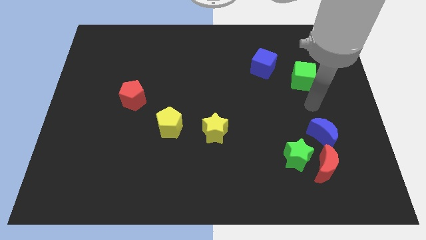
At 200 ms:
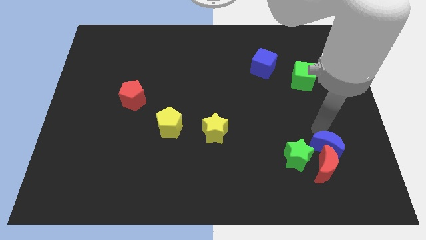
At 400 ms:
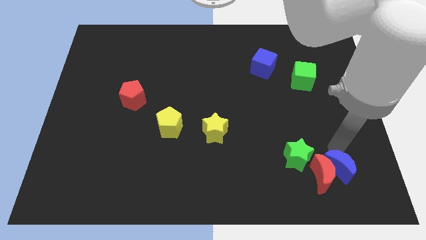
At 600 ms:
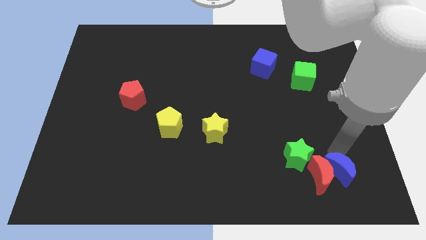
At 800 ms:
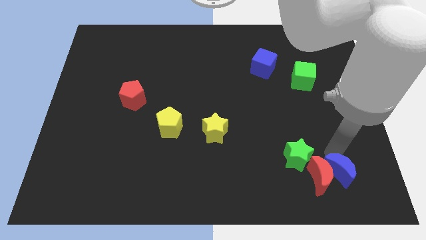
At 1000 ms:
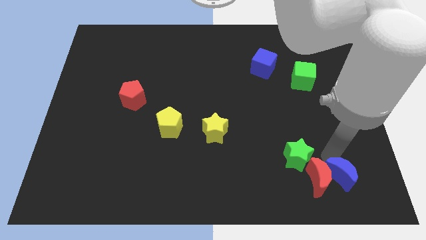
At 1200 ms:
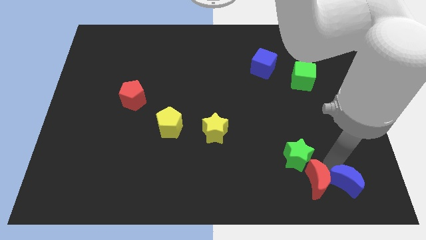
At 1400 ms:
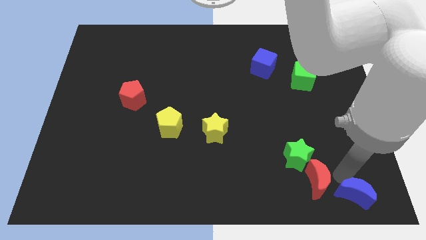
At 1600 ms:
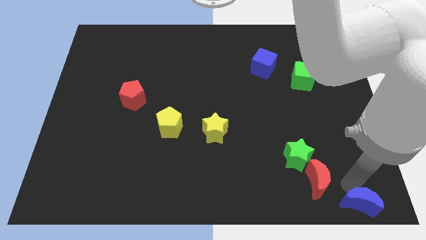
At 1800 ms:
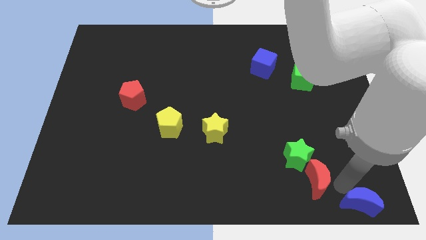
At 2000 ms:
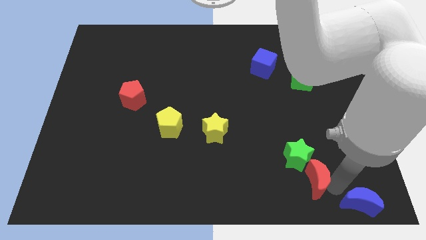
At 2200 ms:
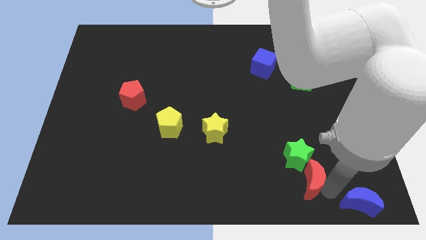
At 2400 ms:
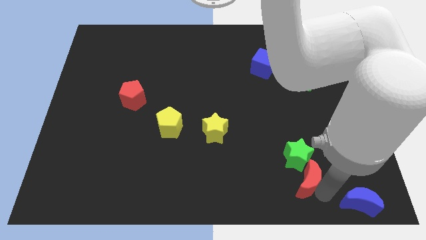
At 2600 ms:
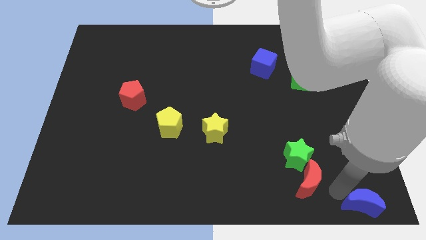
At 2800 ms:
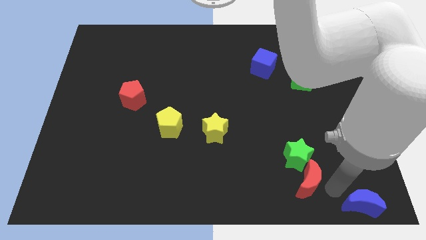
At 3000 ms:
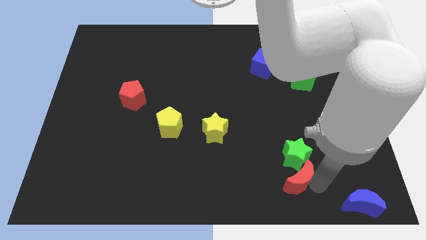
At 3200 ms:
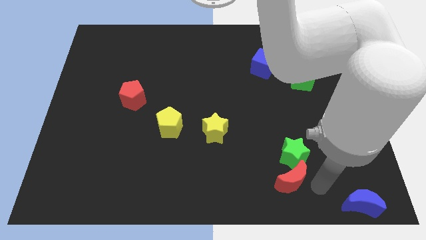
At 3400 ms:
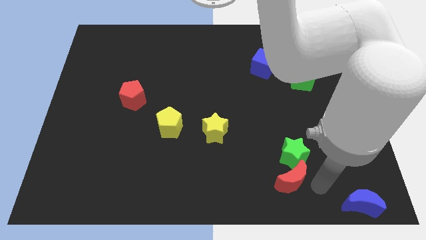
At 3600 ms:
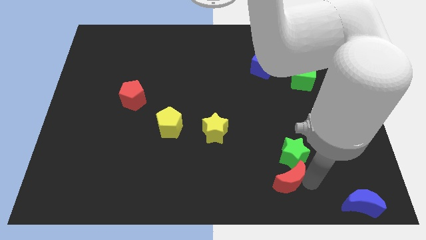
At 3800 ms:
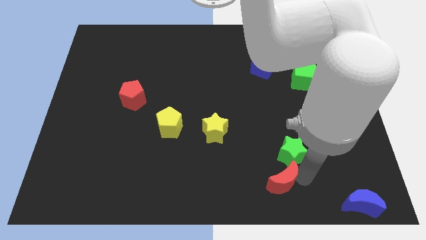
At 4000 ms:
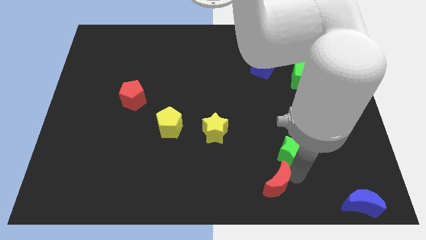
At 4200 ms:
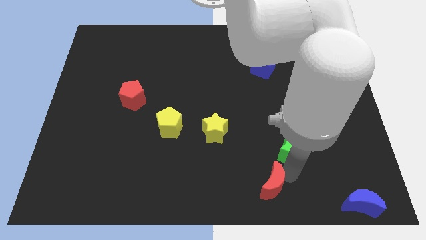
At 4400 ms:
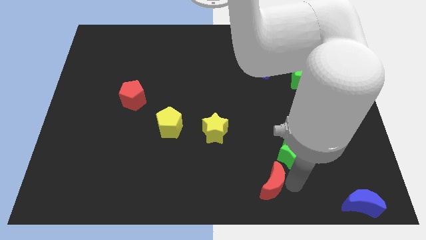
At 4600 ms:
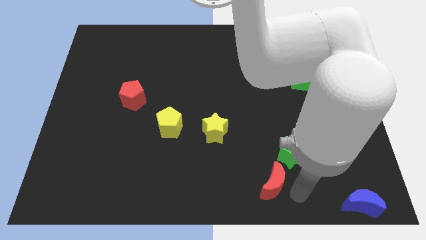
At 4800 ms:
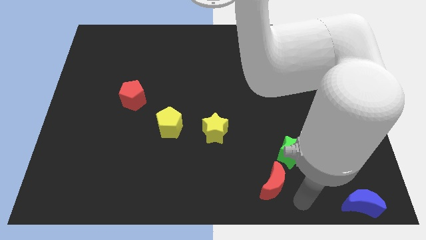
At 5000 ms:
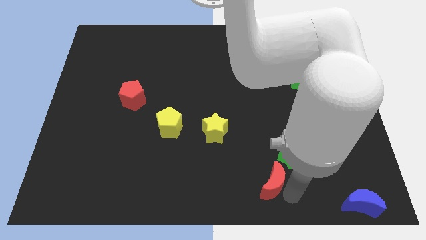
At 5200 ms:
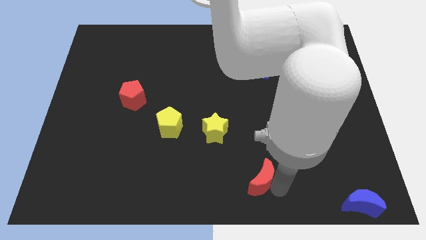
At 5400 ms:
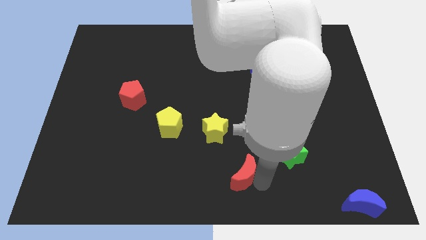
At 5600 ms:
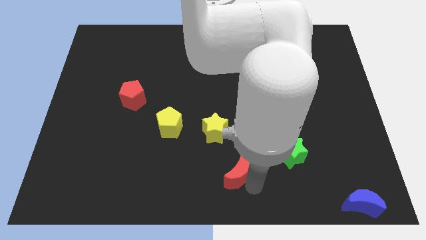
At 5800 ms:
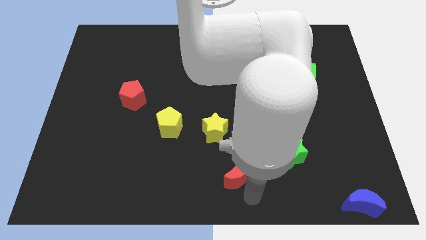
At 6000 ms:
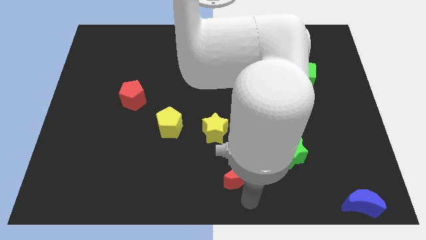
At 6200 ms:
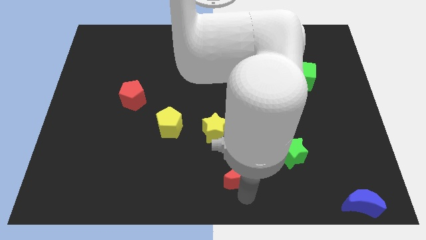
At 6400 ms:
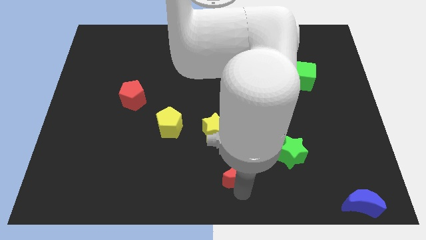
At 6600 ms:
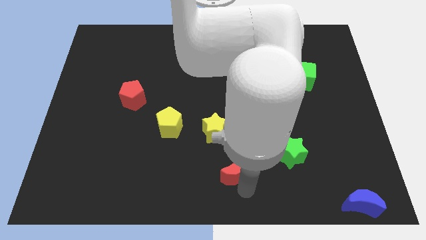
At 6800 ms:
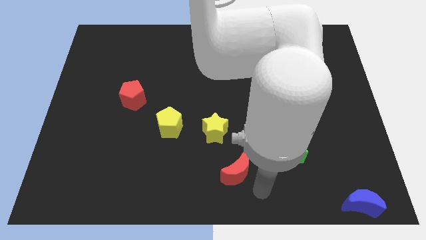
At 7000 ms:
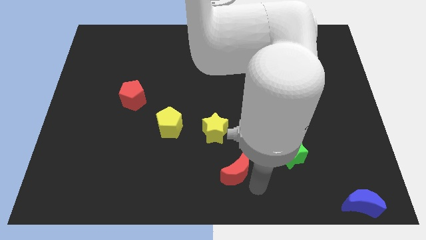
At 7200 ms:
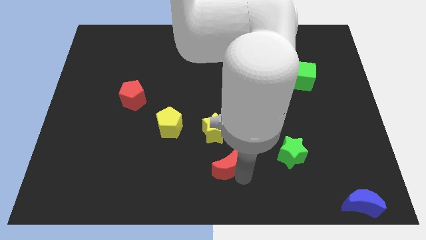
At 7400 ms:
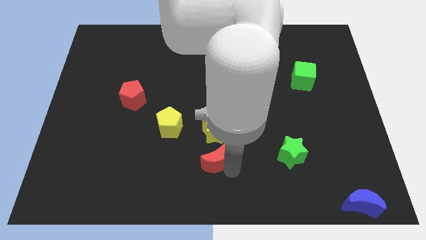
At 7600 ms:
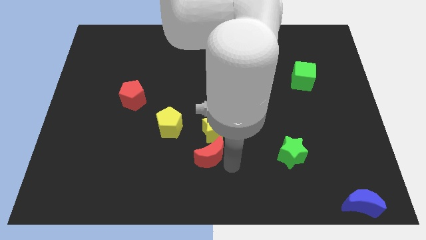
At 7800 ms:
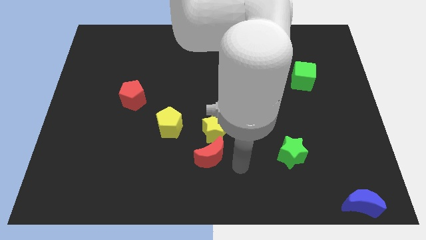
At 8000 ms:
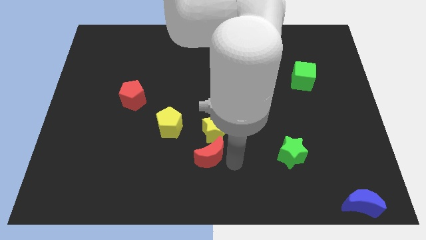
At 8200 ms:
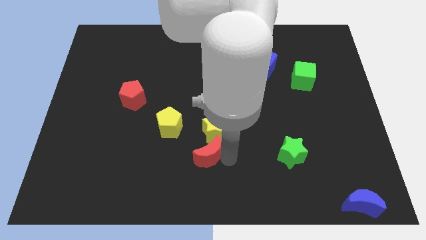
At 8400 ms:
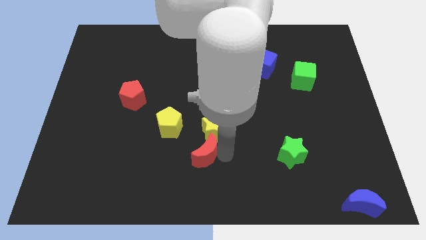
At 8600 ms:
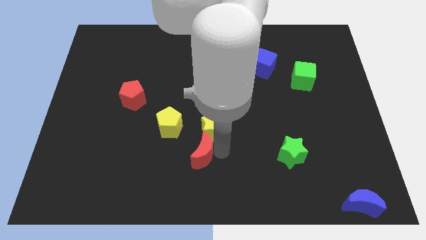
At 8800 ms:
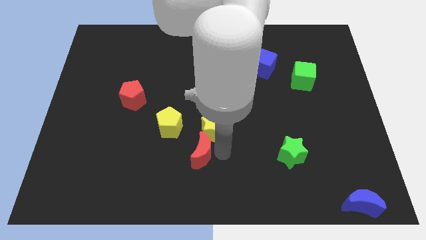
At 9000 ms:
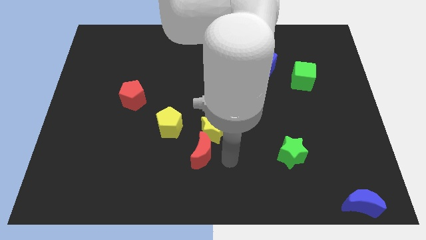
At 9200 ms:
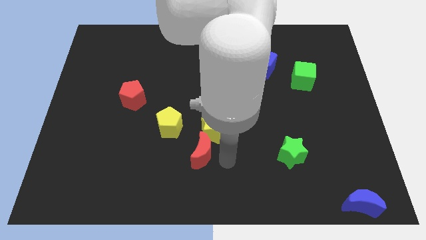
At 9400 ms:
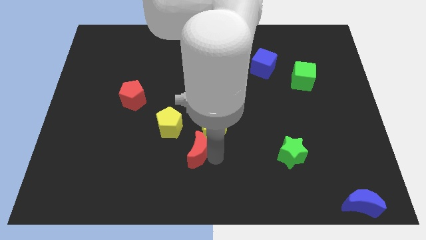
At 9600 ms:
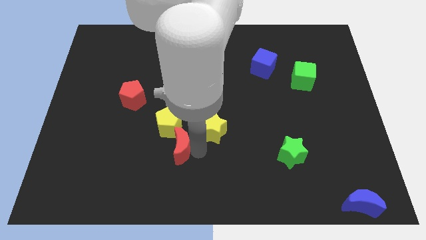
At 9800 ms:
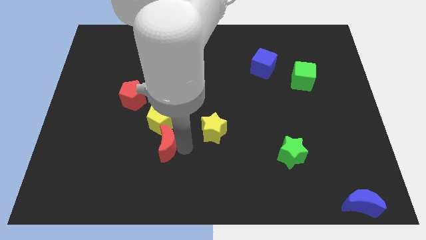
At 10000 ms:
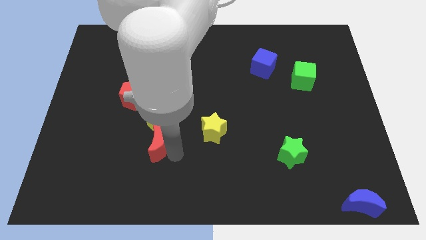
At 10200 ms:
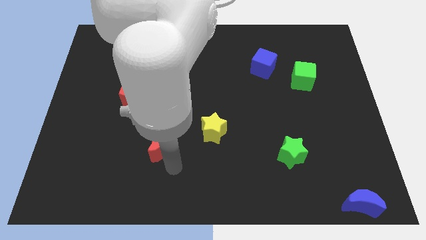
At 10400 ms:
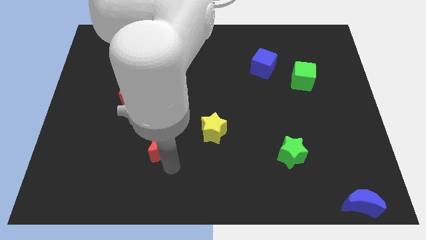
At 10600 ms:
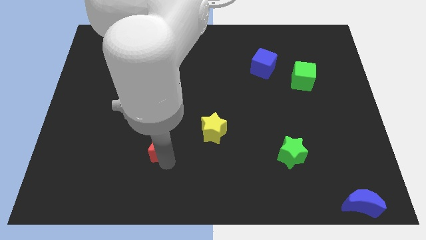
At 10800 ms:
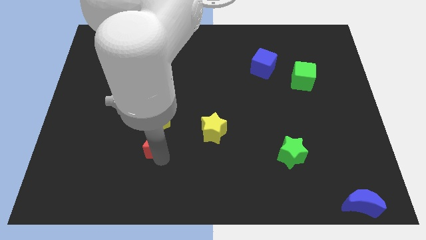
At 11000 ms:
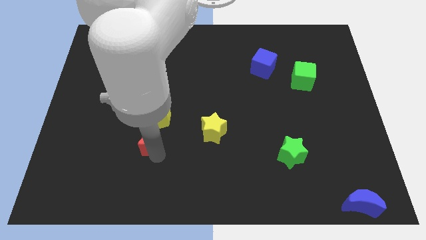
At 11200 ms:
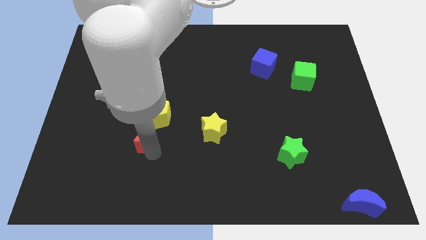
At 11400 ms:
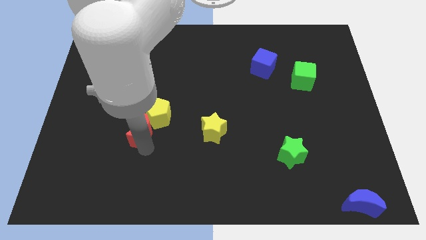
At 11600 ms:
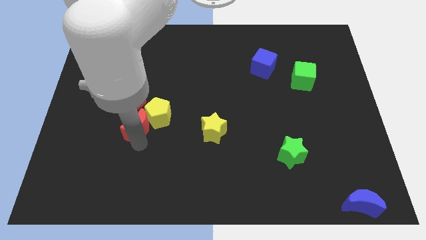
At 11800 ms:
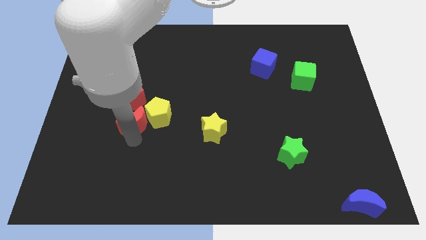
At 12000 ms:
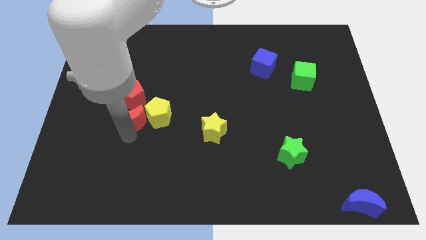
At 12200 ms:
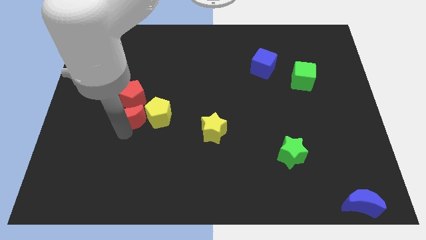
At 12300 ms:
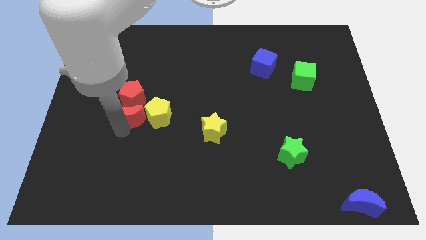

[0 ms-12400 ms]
slide the red moon to the red pentagon

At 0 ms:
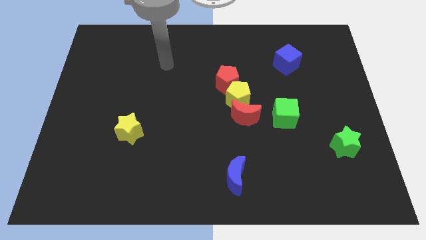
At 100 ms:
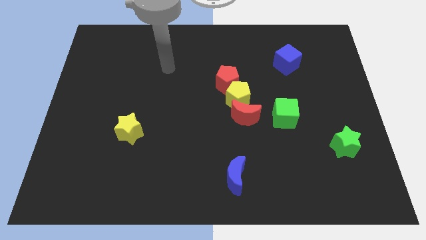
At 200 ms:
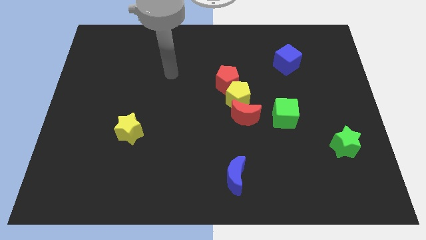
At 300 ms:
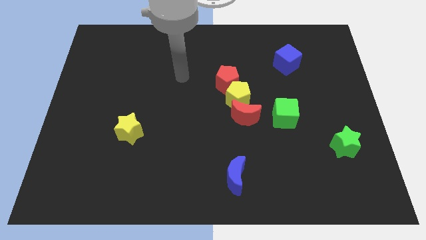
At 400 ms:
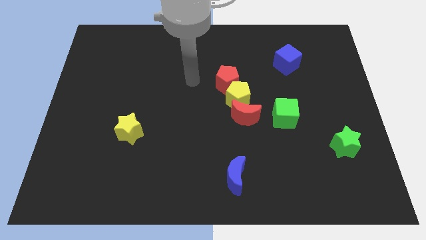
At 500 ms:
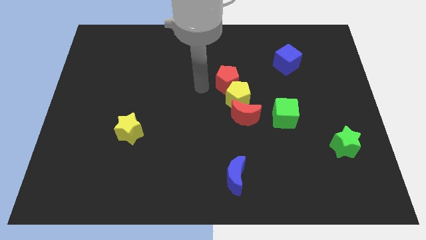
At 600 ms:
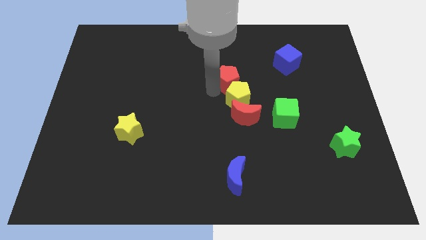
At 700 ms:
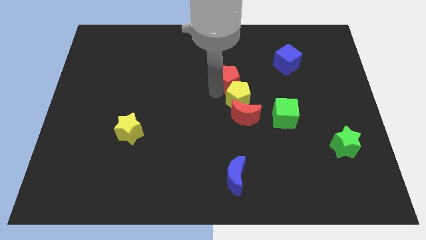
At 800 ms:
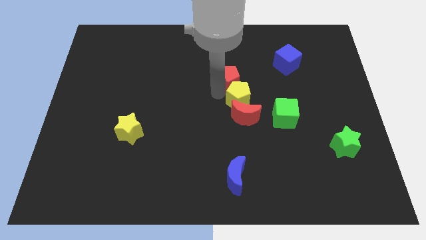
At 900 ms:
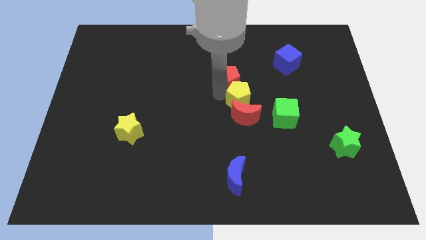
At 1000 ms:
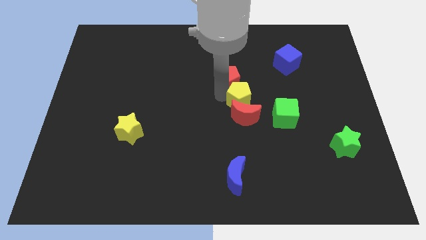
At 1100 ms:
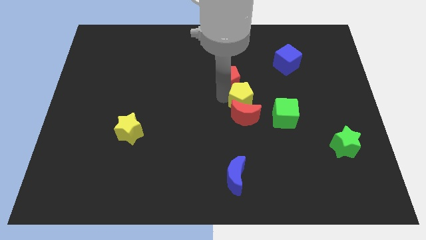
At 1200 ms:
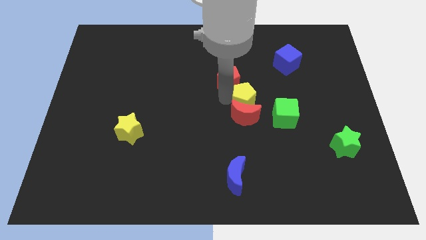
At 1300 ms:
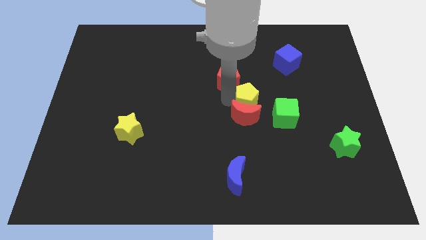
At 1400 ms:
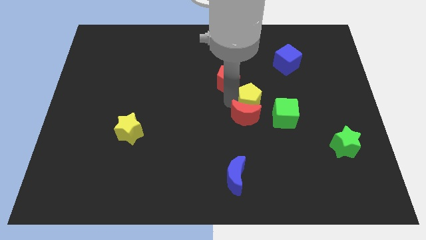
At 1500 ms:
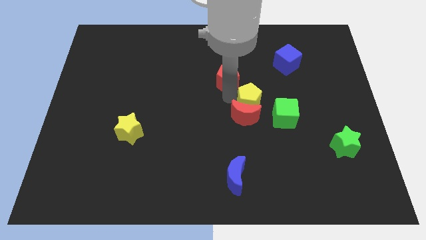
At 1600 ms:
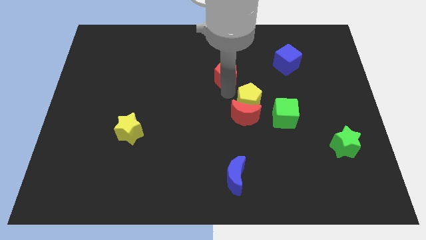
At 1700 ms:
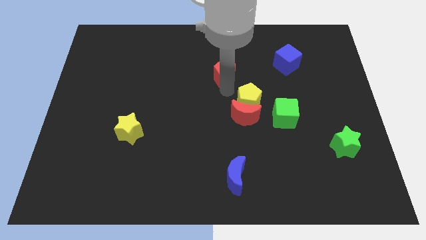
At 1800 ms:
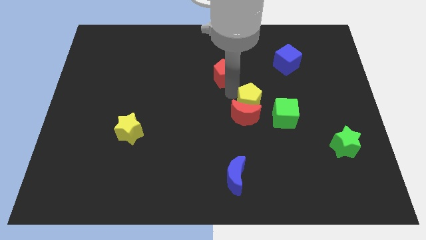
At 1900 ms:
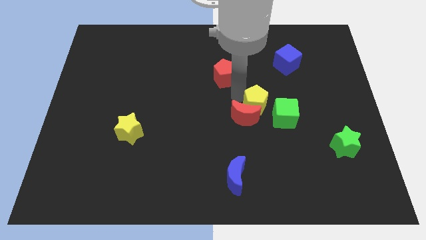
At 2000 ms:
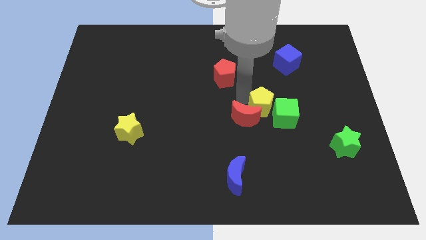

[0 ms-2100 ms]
move the yellow pentagon towards the green cube
